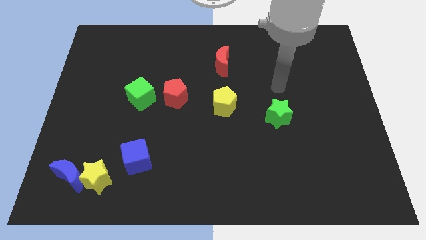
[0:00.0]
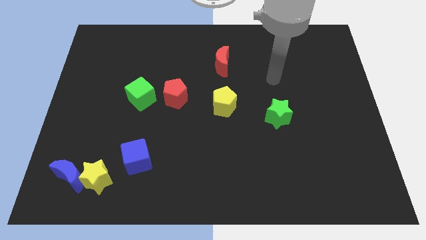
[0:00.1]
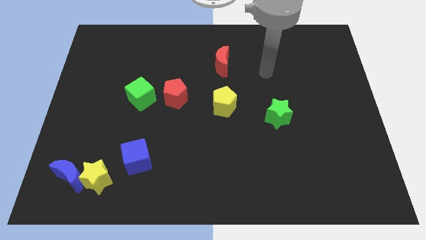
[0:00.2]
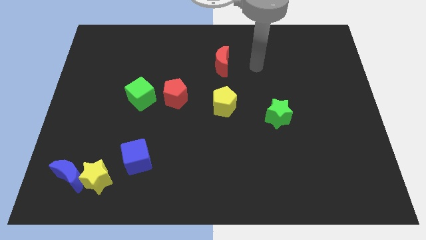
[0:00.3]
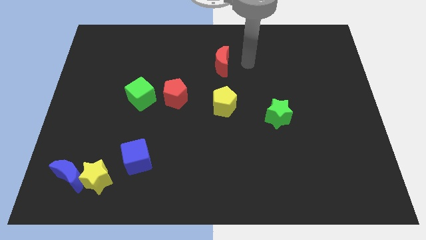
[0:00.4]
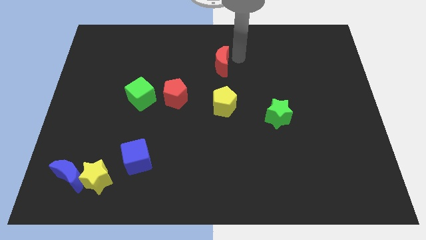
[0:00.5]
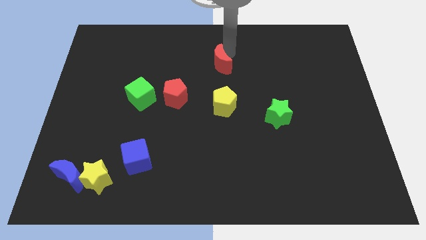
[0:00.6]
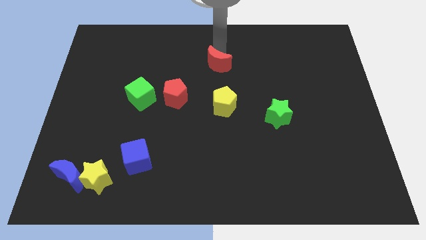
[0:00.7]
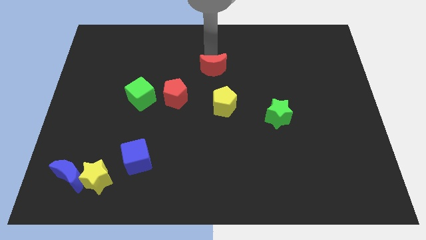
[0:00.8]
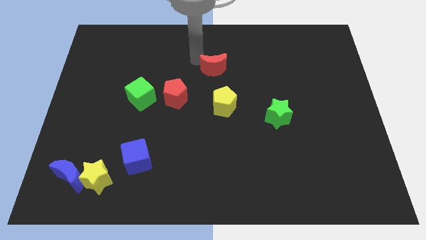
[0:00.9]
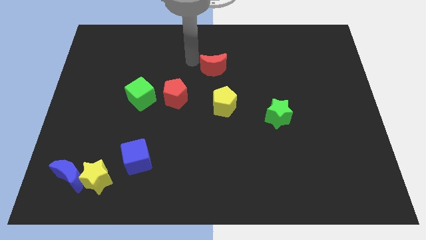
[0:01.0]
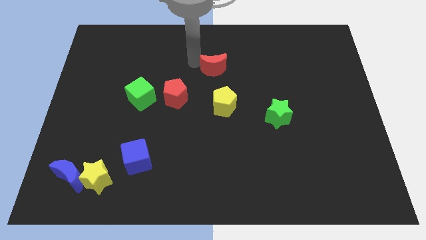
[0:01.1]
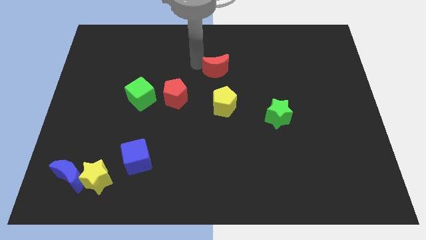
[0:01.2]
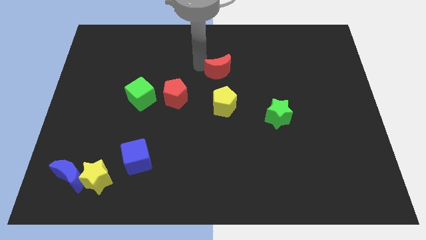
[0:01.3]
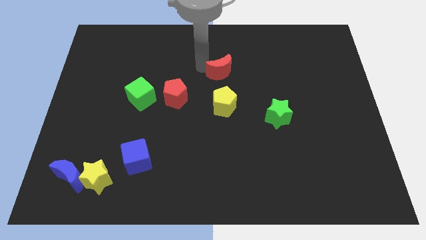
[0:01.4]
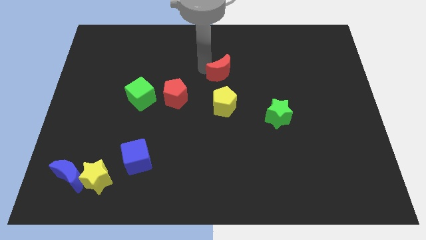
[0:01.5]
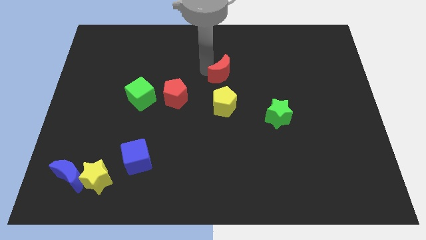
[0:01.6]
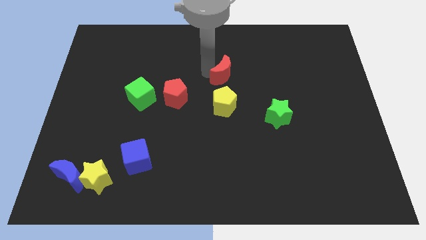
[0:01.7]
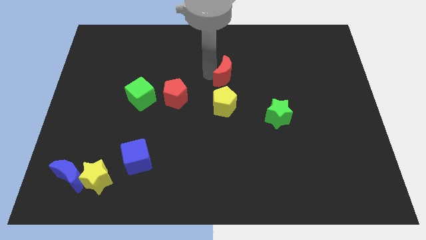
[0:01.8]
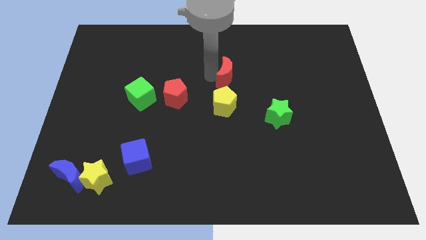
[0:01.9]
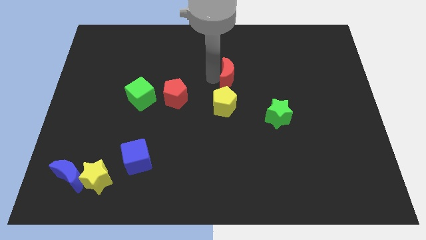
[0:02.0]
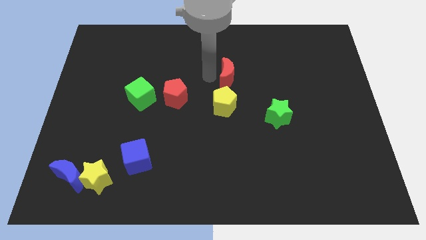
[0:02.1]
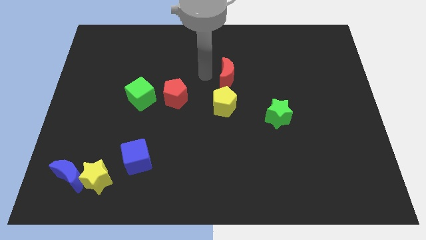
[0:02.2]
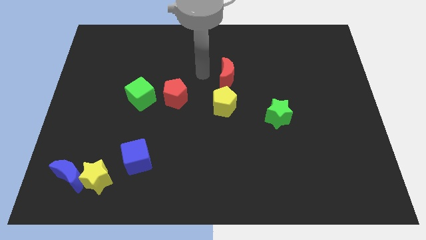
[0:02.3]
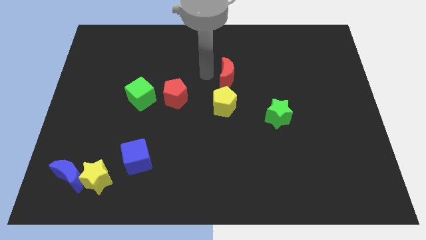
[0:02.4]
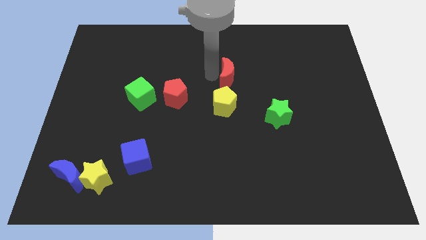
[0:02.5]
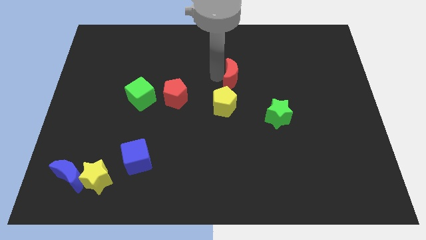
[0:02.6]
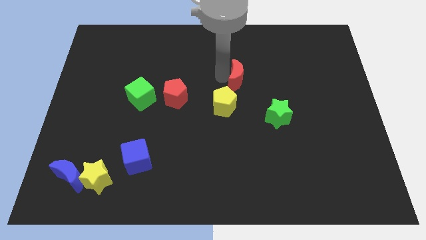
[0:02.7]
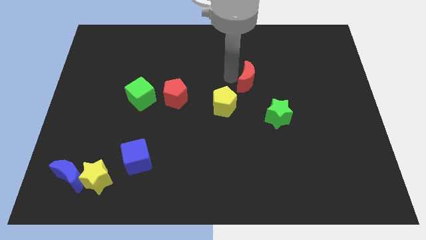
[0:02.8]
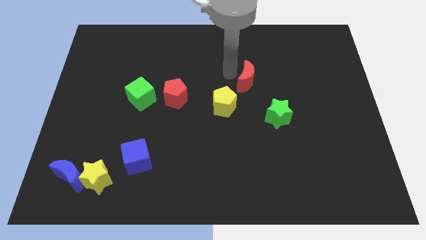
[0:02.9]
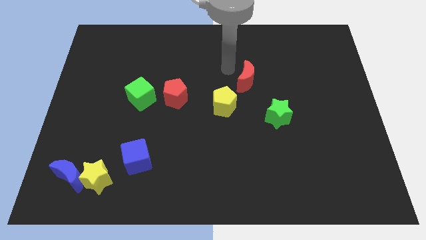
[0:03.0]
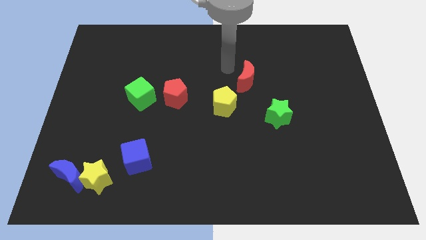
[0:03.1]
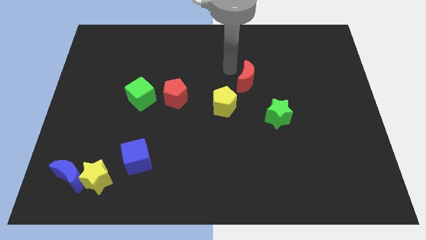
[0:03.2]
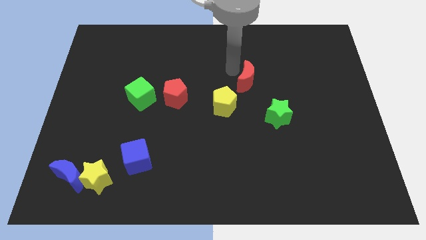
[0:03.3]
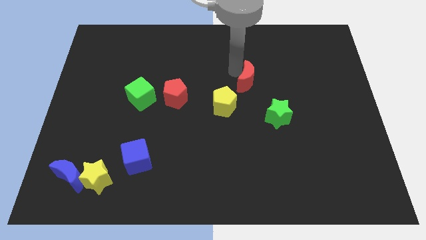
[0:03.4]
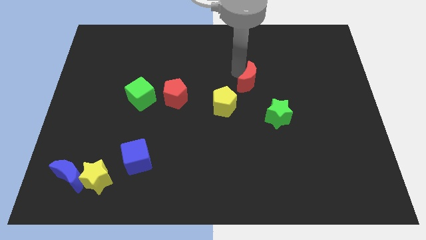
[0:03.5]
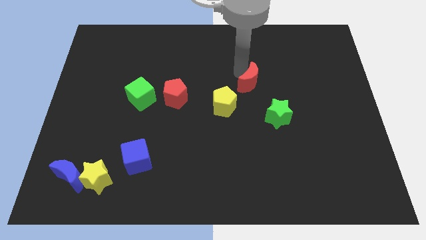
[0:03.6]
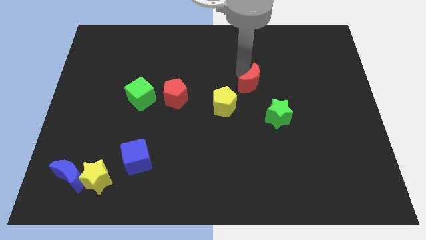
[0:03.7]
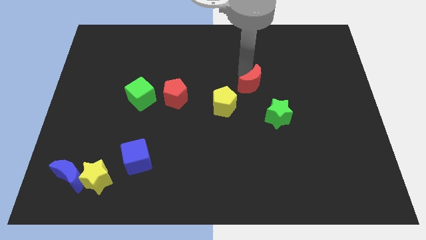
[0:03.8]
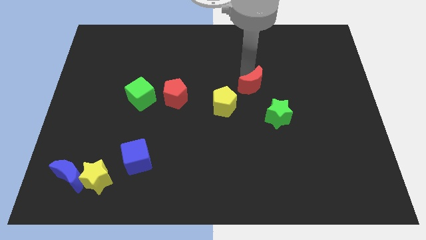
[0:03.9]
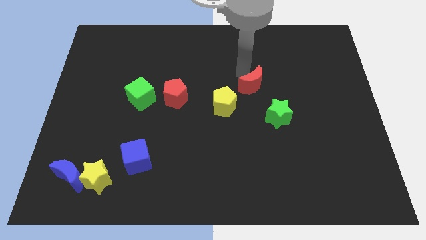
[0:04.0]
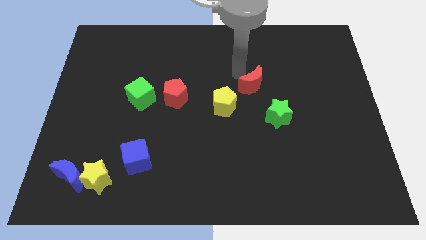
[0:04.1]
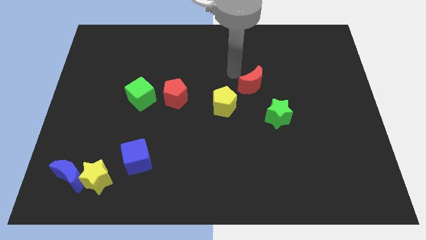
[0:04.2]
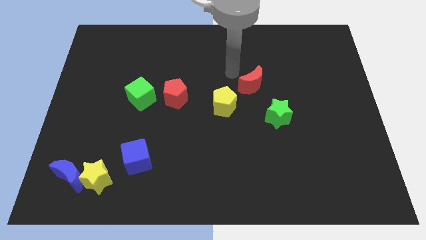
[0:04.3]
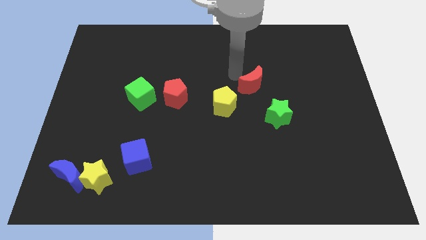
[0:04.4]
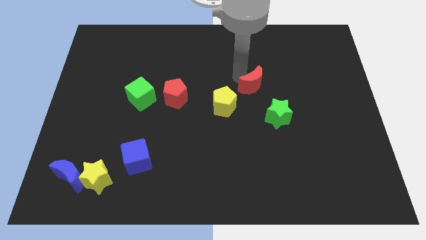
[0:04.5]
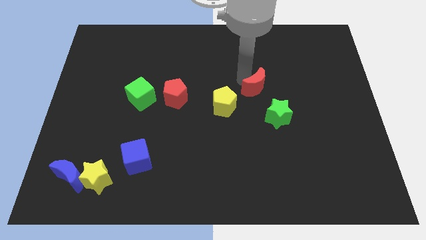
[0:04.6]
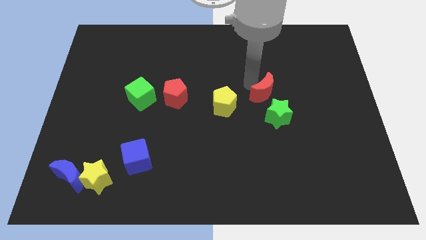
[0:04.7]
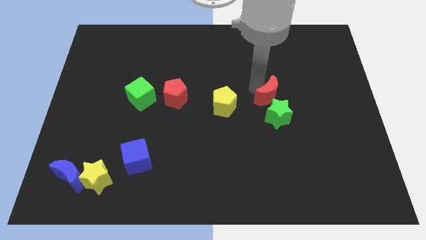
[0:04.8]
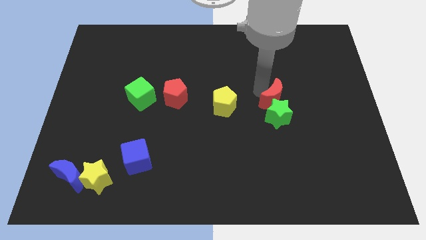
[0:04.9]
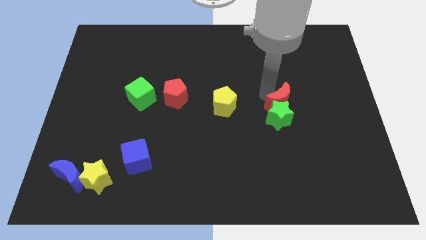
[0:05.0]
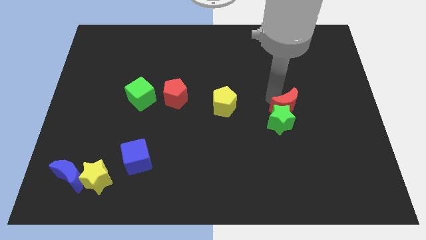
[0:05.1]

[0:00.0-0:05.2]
push the red moon down and to the right

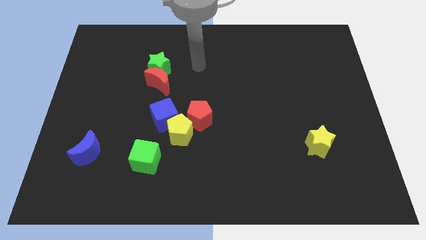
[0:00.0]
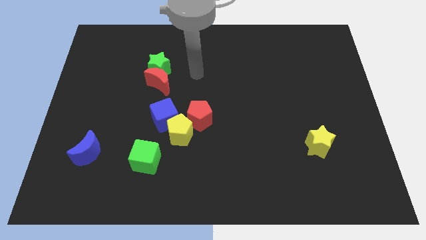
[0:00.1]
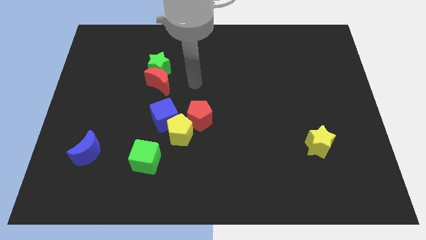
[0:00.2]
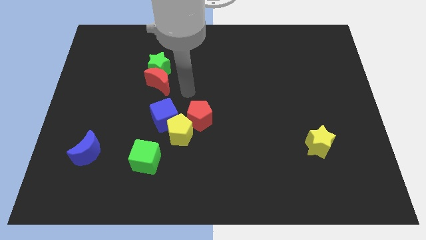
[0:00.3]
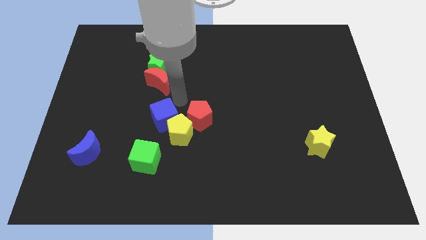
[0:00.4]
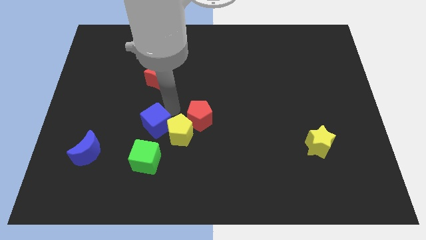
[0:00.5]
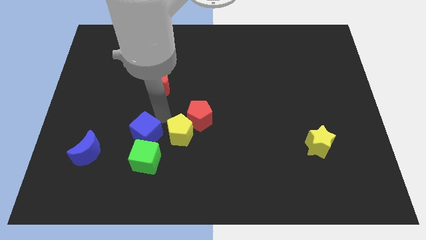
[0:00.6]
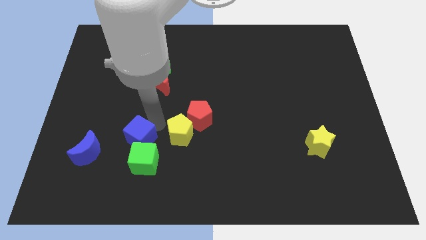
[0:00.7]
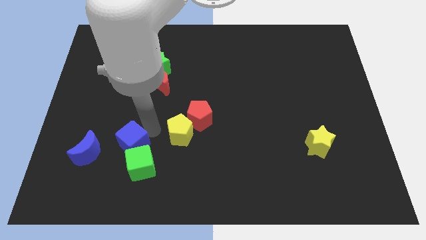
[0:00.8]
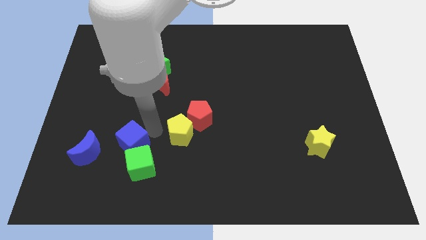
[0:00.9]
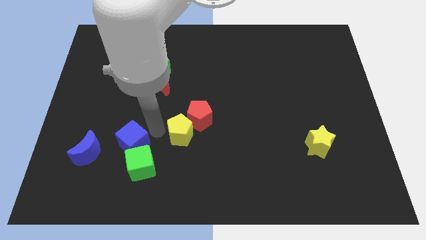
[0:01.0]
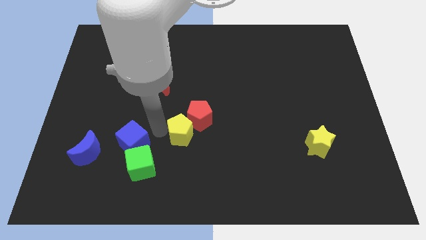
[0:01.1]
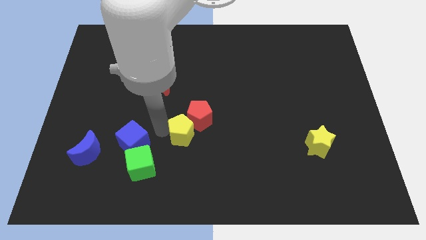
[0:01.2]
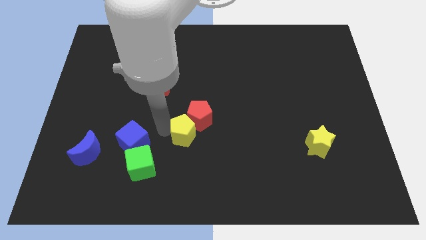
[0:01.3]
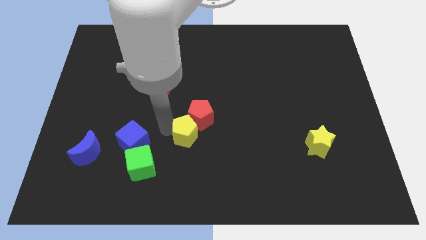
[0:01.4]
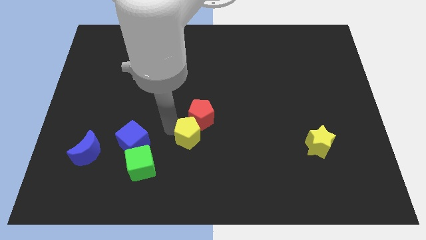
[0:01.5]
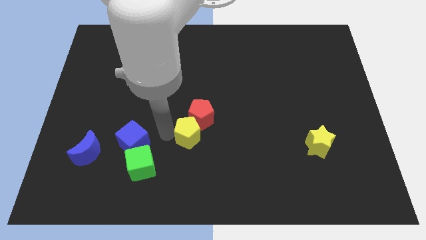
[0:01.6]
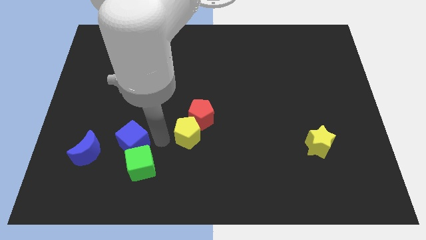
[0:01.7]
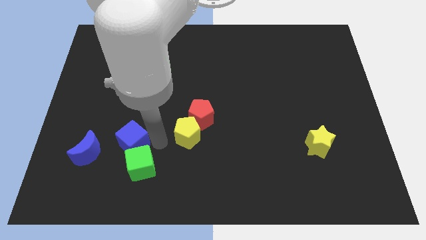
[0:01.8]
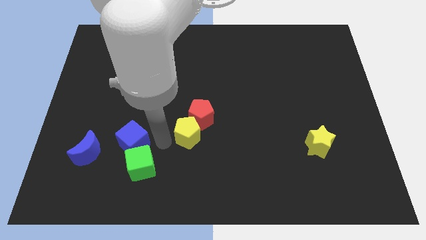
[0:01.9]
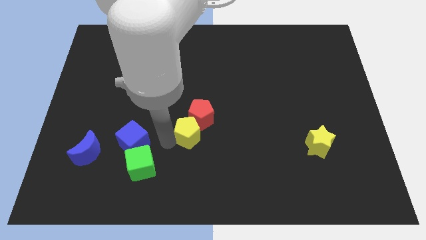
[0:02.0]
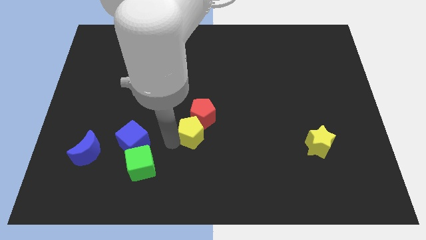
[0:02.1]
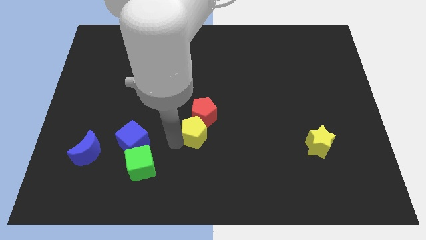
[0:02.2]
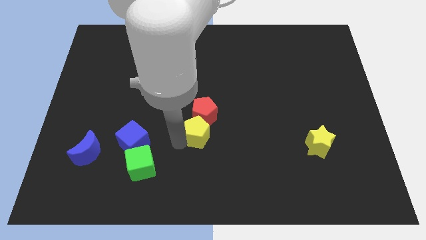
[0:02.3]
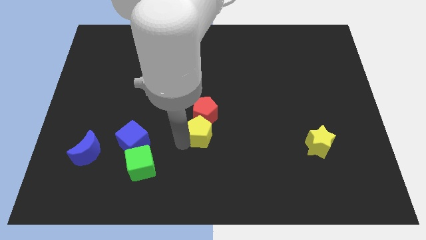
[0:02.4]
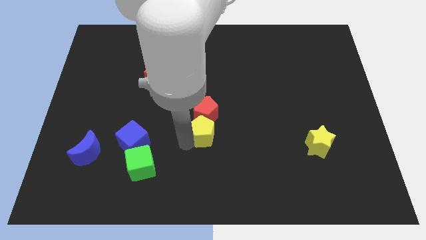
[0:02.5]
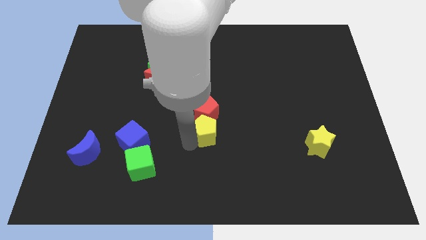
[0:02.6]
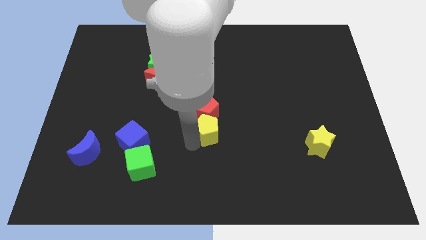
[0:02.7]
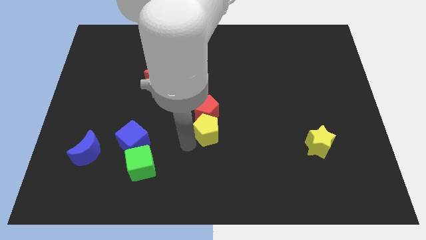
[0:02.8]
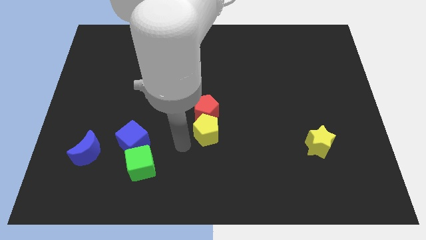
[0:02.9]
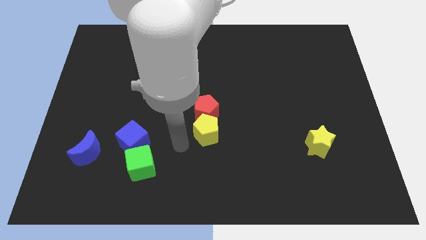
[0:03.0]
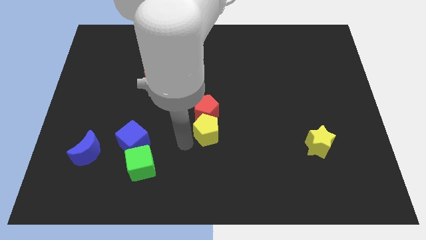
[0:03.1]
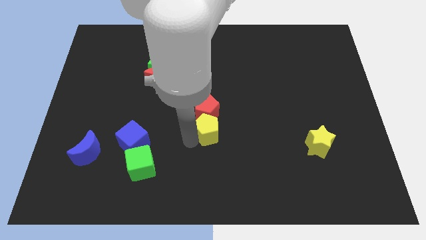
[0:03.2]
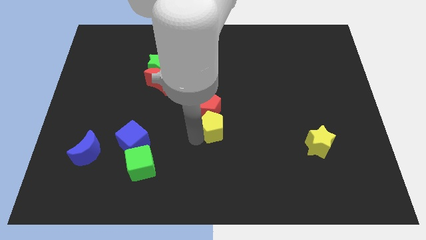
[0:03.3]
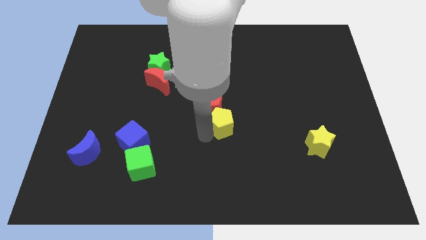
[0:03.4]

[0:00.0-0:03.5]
move the yellow pentagon diagonally up and right a little bit
